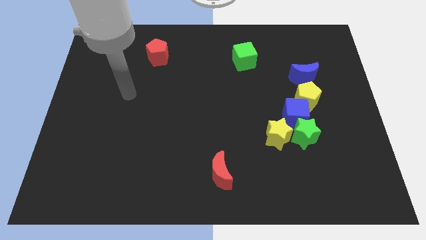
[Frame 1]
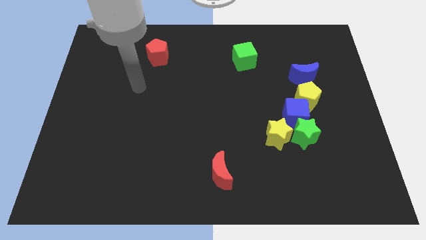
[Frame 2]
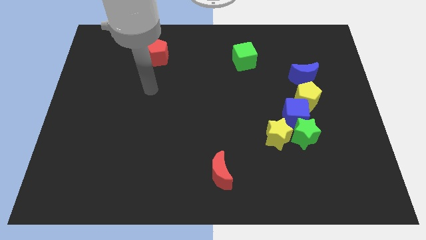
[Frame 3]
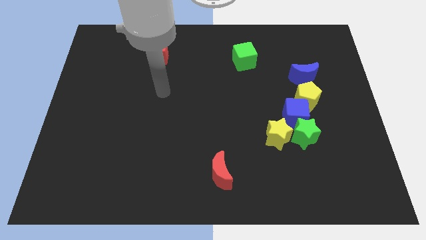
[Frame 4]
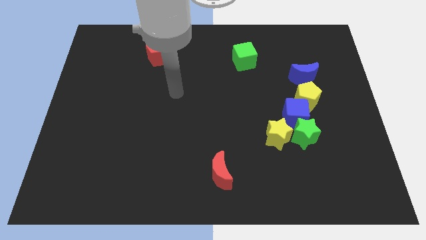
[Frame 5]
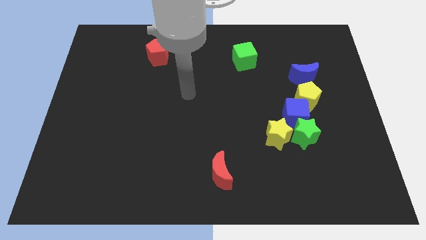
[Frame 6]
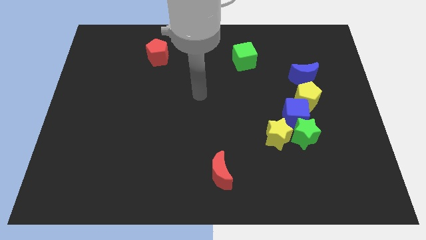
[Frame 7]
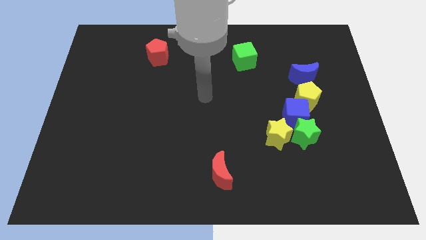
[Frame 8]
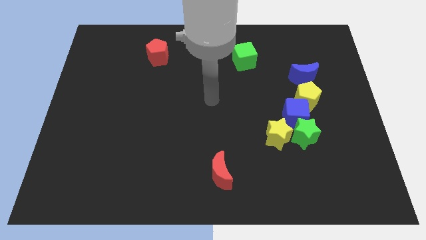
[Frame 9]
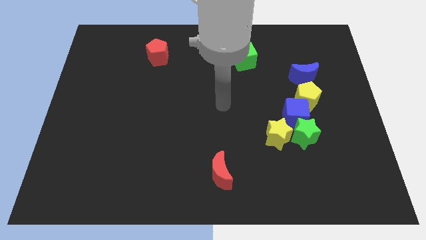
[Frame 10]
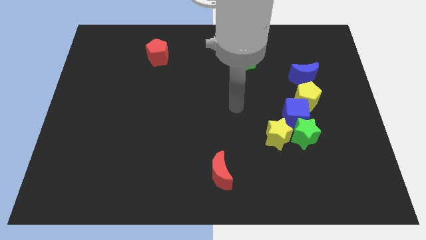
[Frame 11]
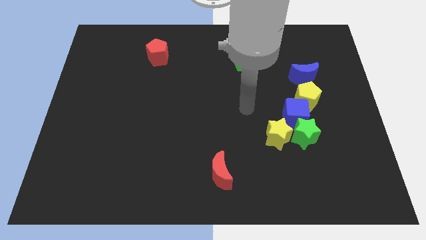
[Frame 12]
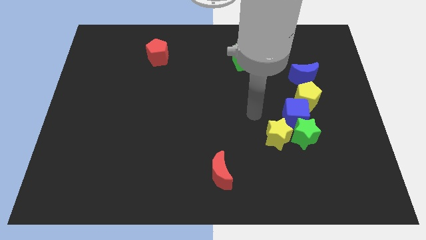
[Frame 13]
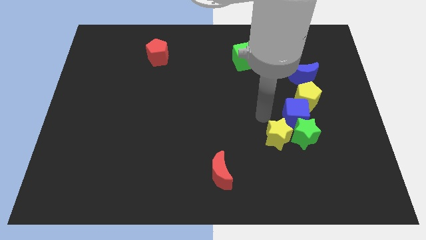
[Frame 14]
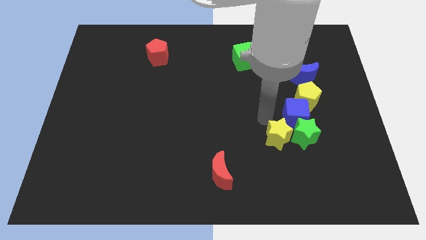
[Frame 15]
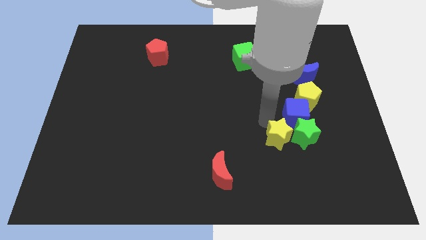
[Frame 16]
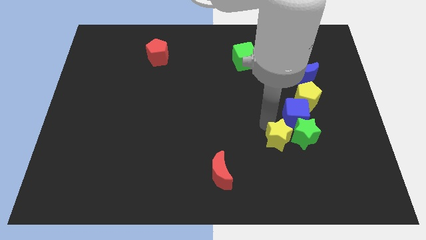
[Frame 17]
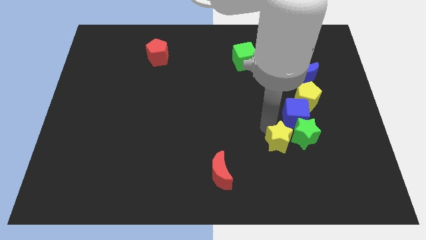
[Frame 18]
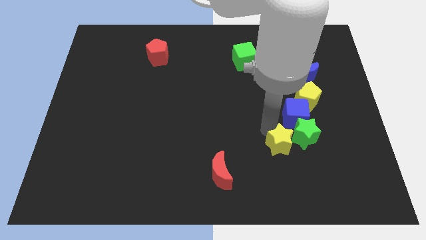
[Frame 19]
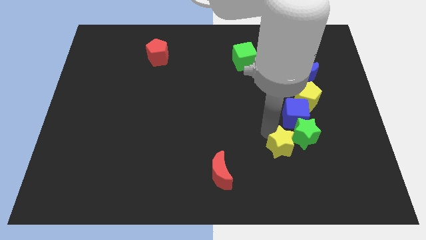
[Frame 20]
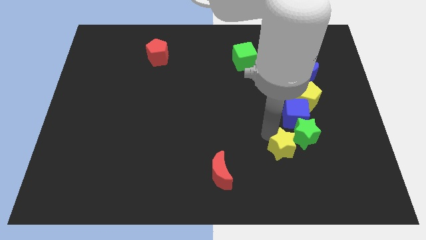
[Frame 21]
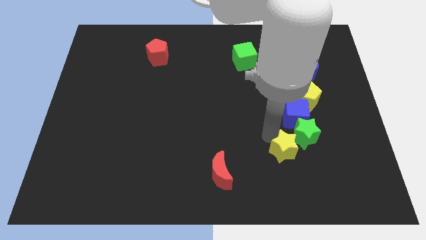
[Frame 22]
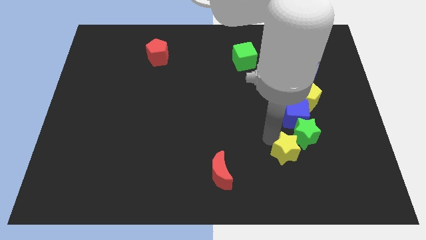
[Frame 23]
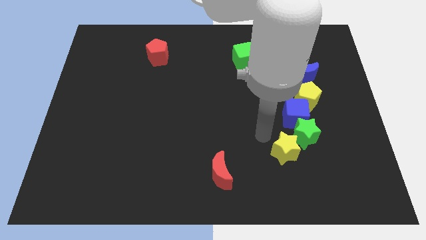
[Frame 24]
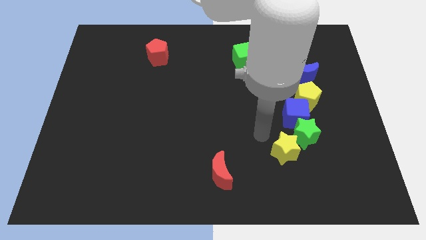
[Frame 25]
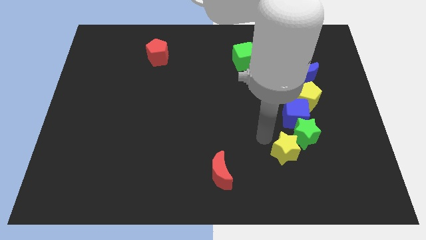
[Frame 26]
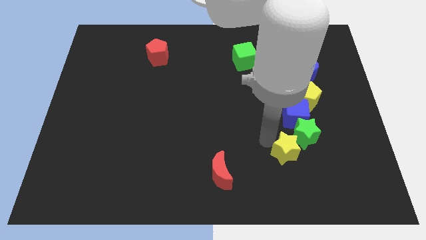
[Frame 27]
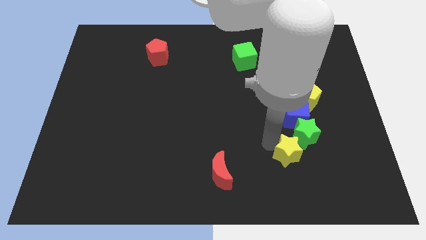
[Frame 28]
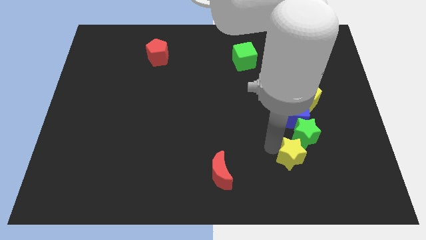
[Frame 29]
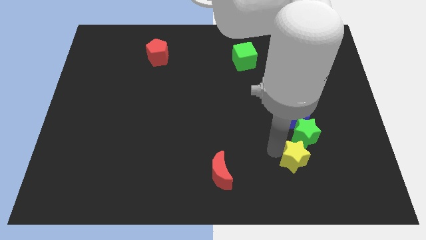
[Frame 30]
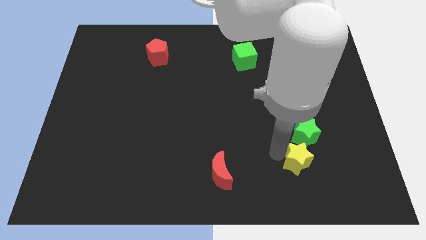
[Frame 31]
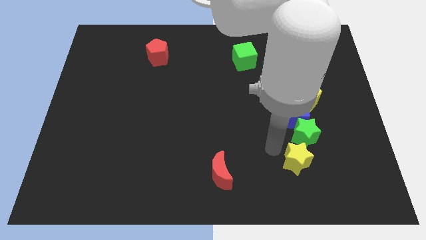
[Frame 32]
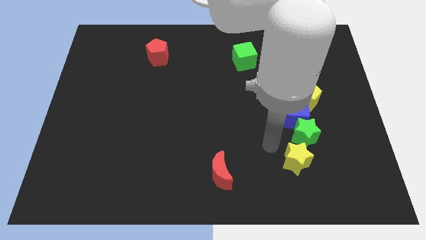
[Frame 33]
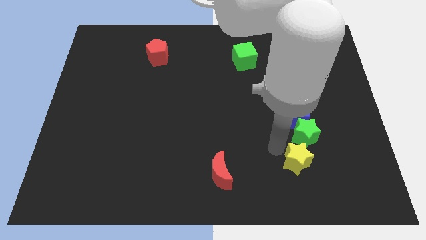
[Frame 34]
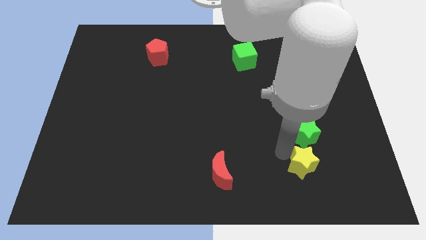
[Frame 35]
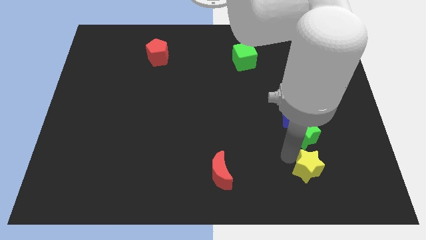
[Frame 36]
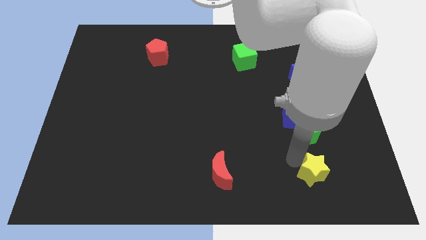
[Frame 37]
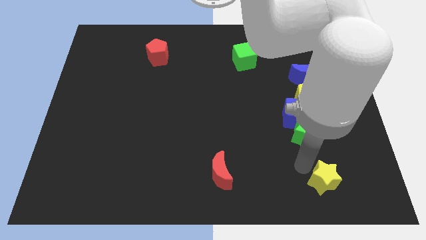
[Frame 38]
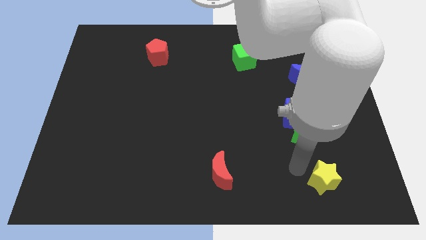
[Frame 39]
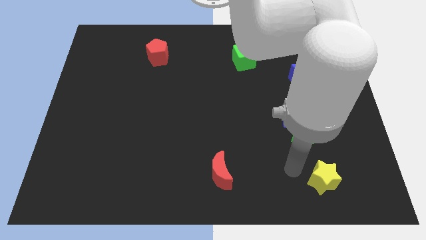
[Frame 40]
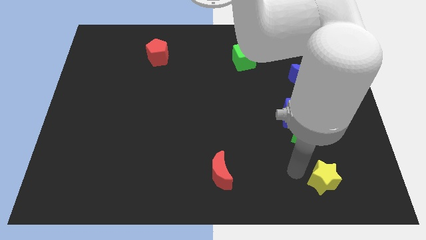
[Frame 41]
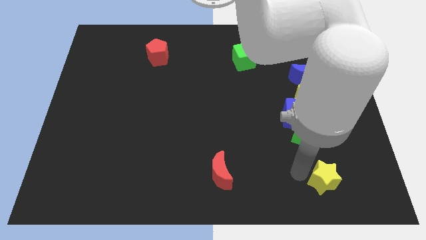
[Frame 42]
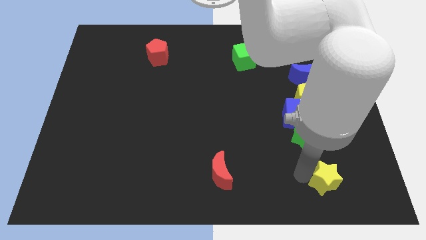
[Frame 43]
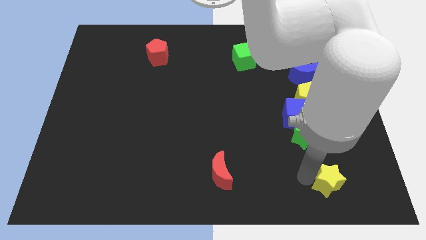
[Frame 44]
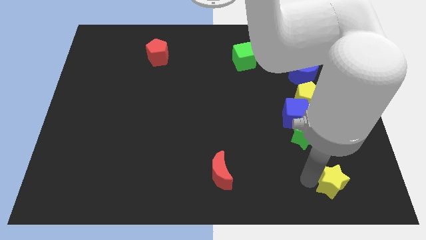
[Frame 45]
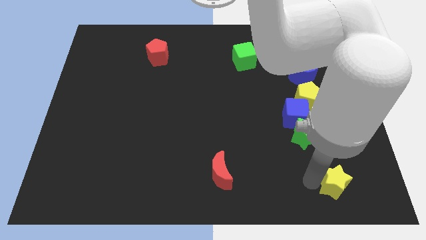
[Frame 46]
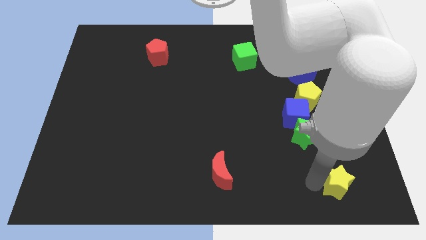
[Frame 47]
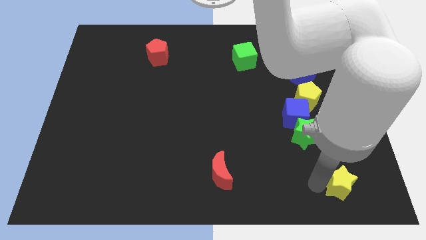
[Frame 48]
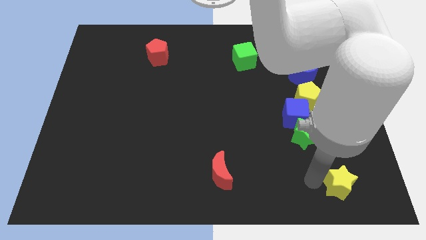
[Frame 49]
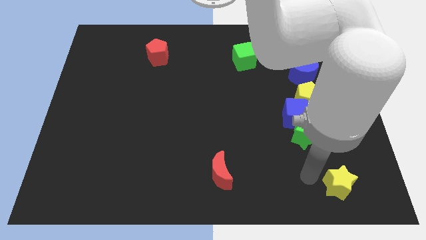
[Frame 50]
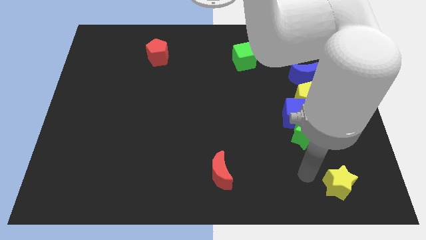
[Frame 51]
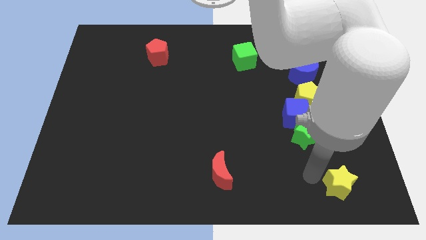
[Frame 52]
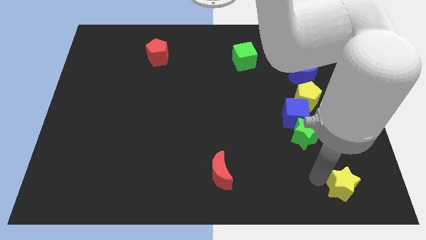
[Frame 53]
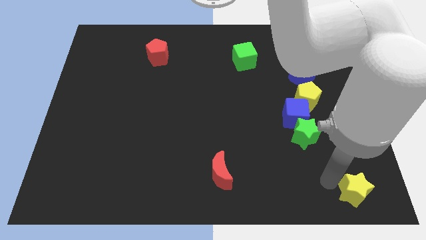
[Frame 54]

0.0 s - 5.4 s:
put the yellow star to the bottom right of the board
